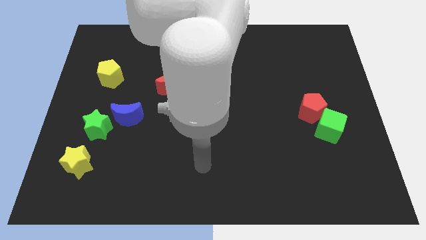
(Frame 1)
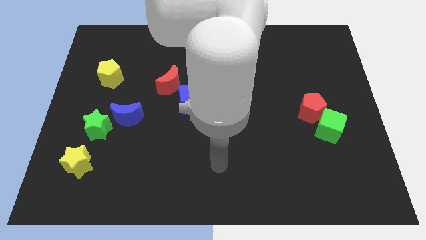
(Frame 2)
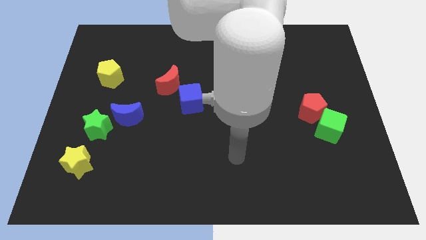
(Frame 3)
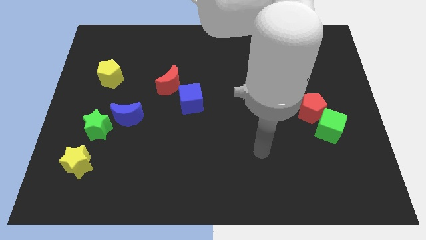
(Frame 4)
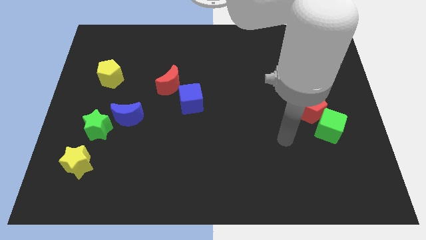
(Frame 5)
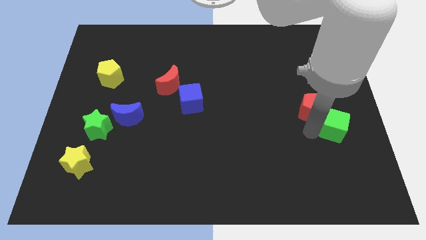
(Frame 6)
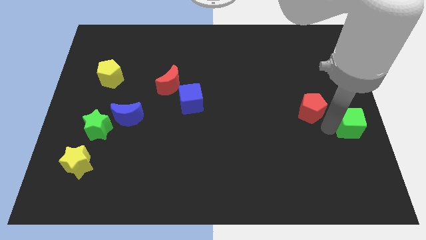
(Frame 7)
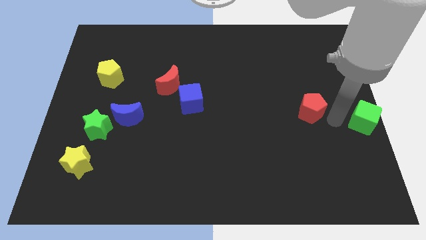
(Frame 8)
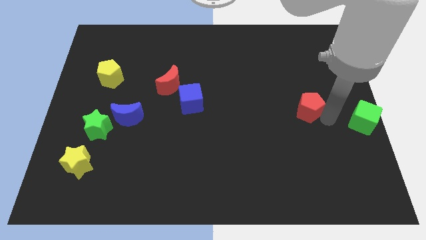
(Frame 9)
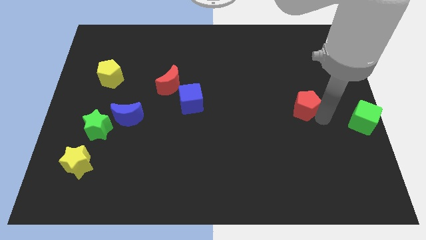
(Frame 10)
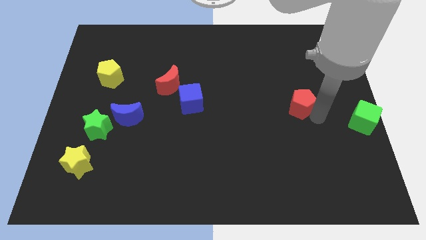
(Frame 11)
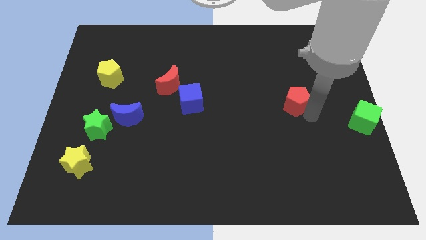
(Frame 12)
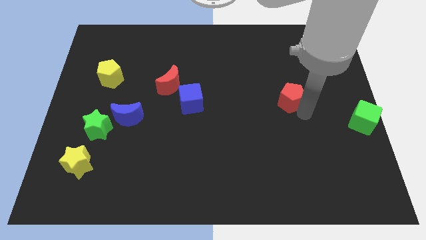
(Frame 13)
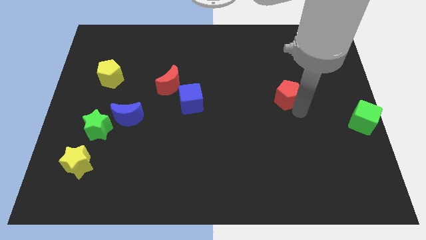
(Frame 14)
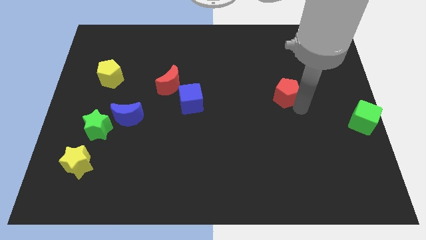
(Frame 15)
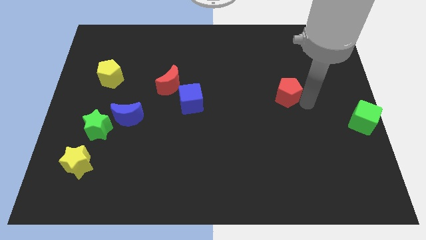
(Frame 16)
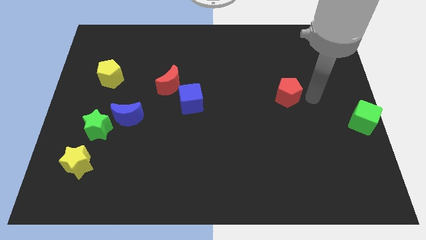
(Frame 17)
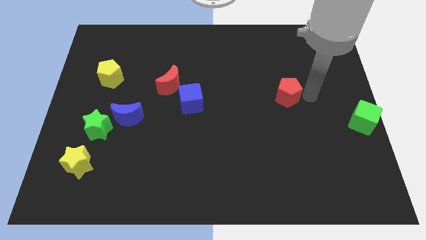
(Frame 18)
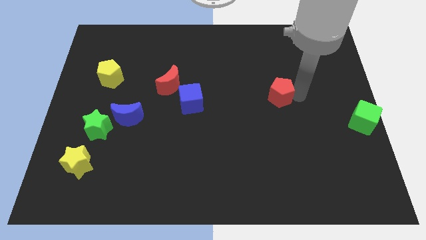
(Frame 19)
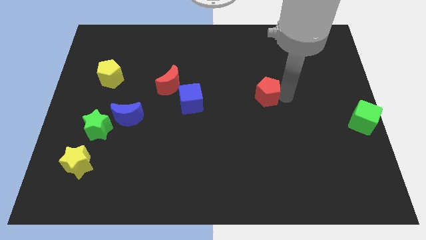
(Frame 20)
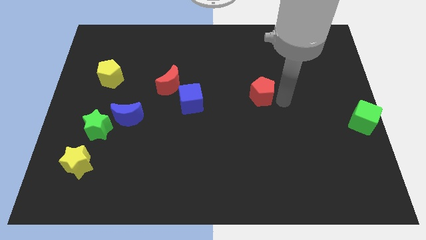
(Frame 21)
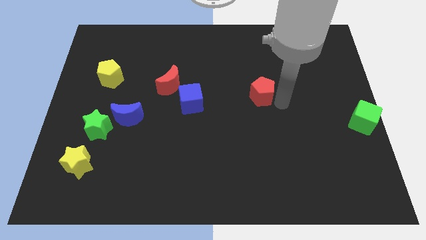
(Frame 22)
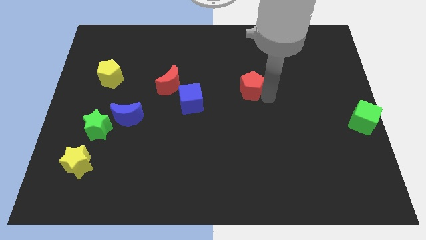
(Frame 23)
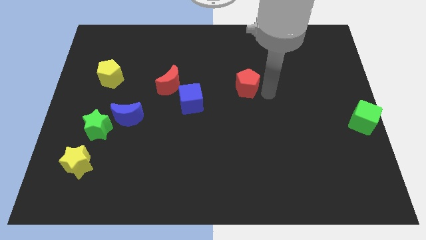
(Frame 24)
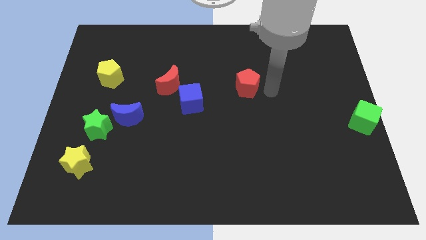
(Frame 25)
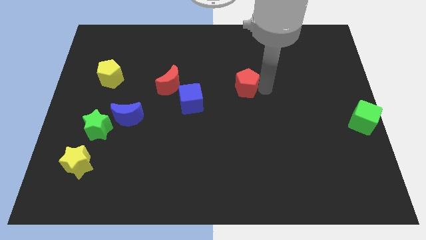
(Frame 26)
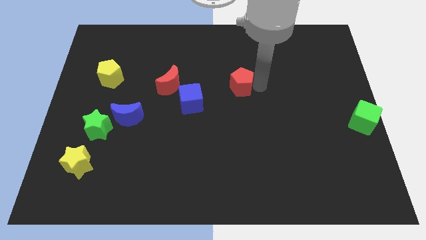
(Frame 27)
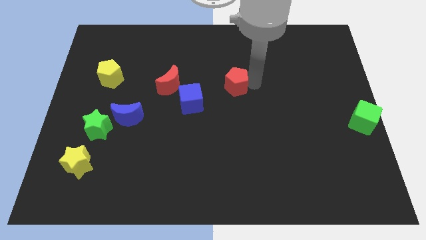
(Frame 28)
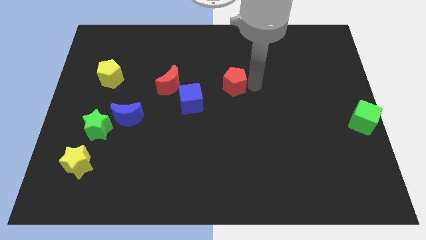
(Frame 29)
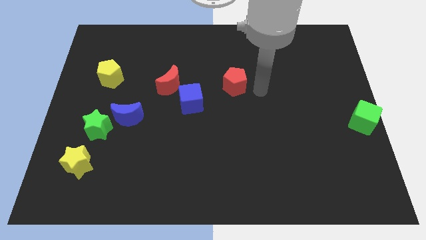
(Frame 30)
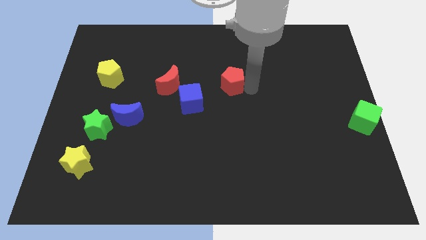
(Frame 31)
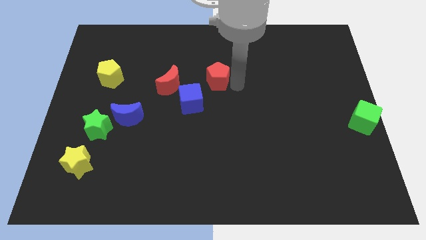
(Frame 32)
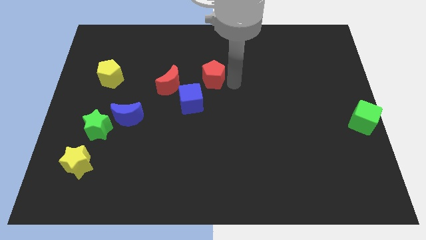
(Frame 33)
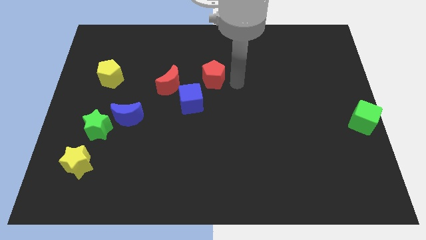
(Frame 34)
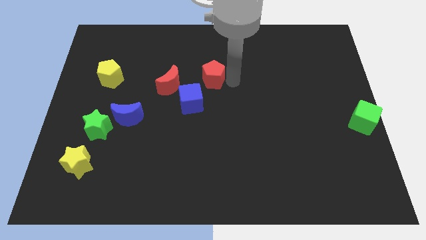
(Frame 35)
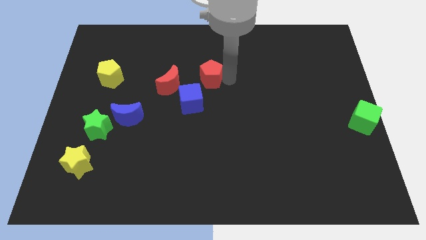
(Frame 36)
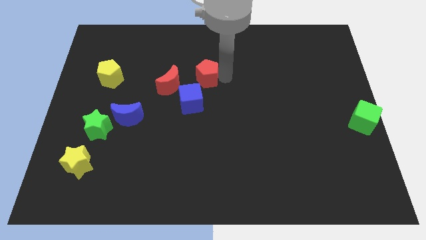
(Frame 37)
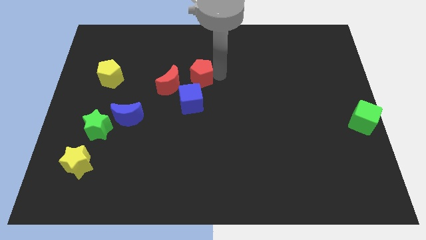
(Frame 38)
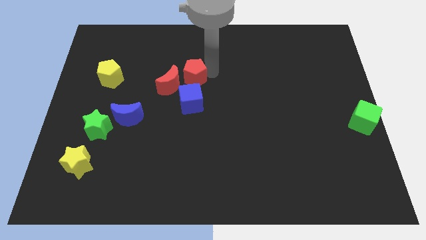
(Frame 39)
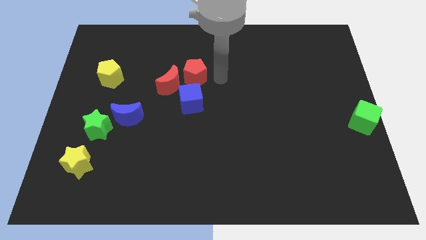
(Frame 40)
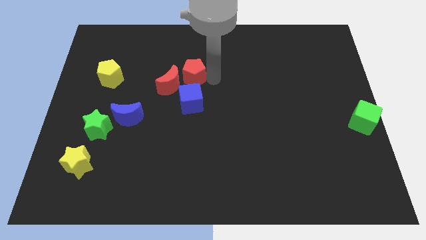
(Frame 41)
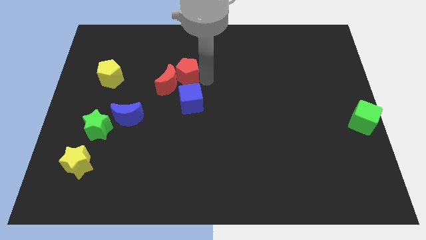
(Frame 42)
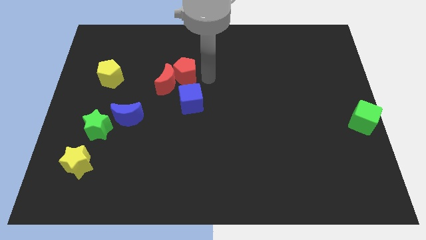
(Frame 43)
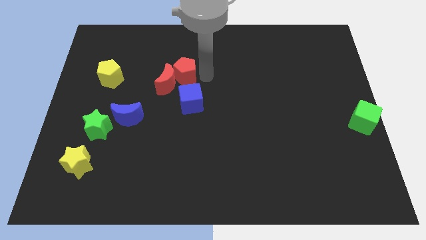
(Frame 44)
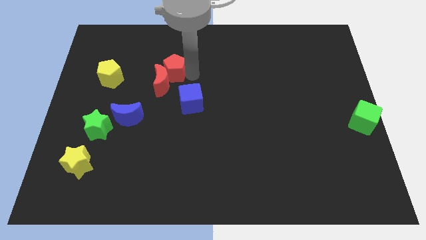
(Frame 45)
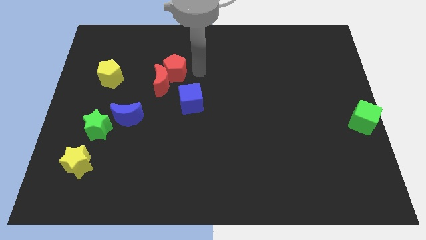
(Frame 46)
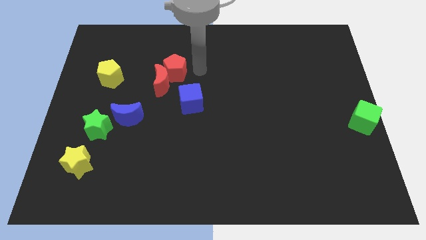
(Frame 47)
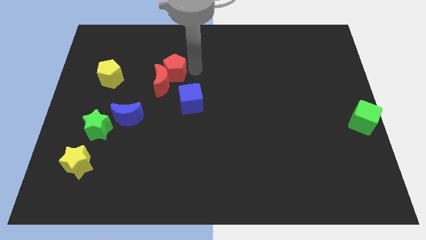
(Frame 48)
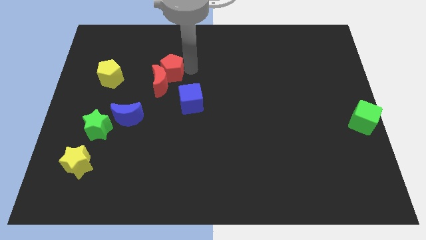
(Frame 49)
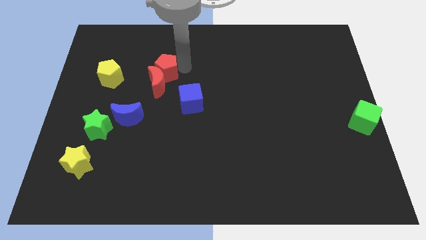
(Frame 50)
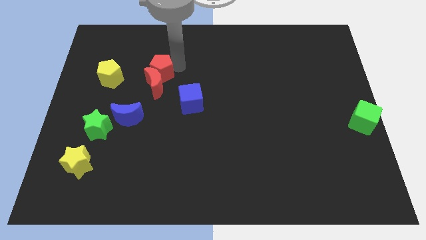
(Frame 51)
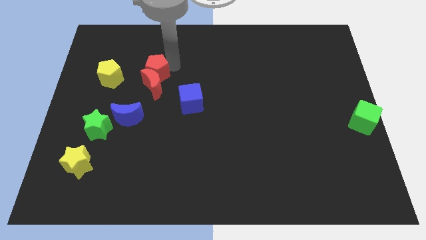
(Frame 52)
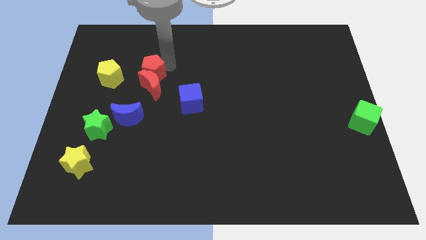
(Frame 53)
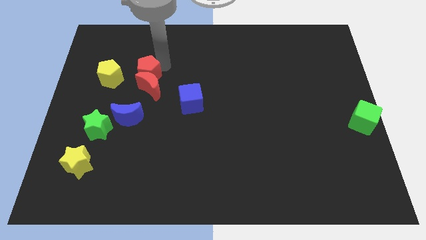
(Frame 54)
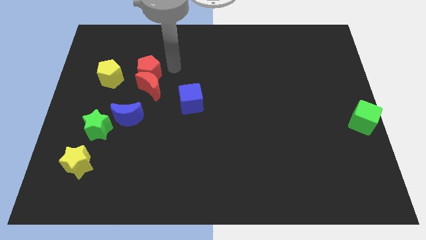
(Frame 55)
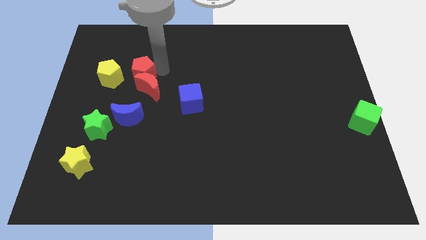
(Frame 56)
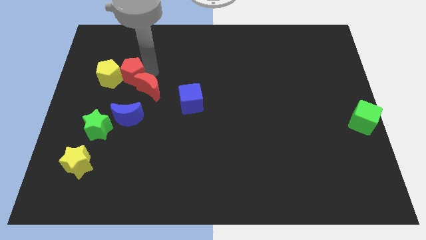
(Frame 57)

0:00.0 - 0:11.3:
push the red pentagon next to the yellow pentagon

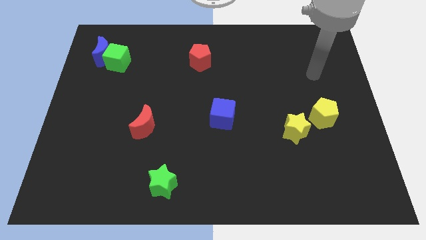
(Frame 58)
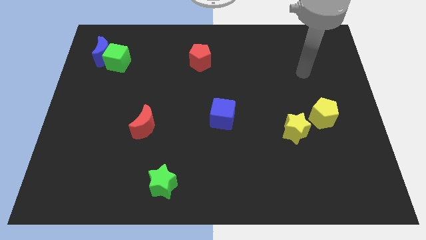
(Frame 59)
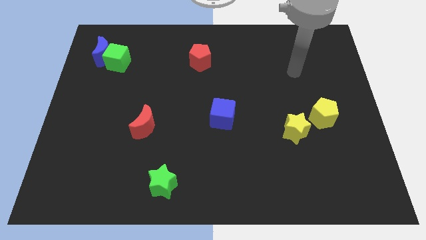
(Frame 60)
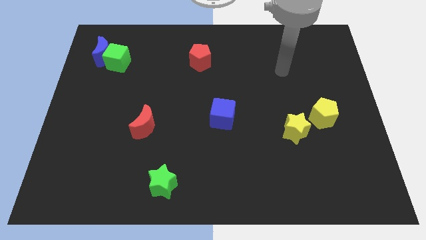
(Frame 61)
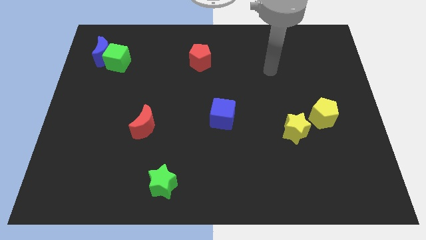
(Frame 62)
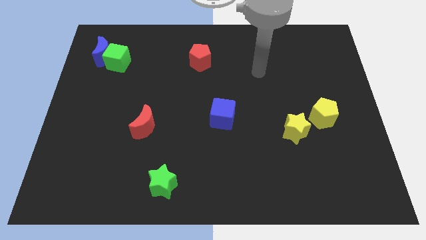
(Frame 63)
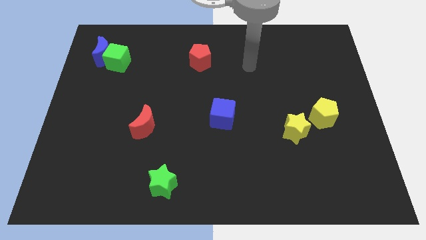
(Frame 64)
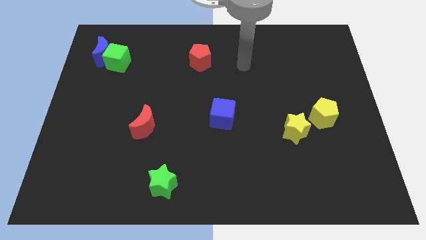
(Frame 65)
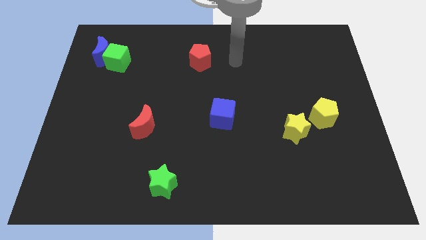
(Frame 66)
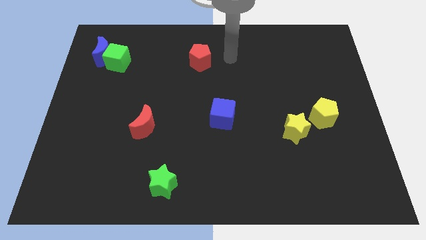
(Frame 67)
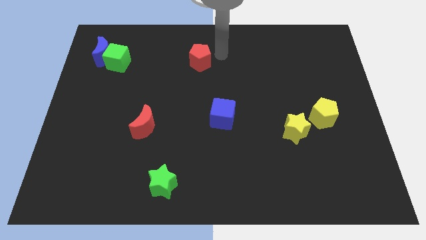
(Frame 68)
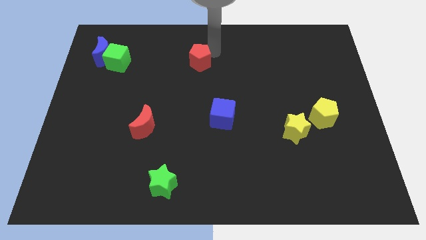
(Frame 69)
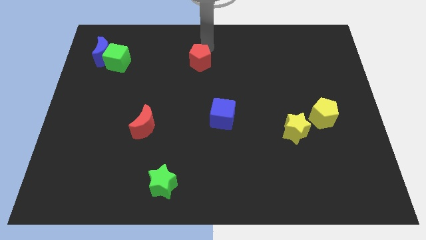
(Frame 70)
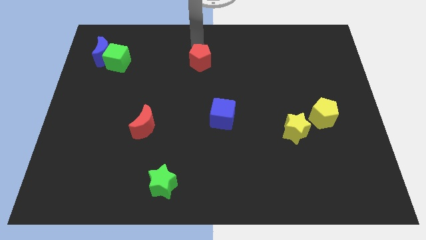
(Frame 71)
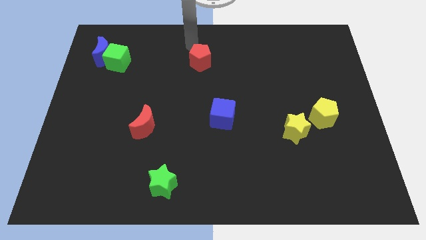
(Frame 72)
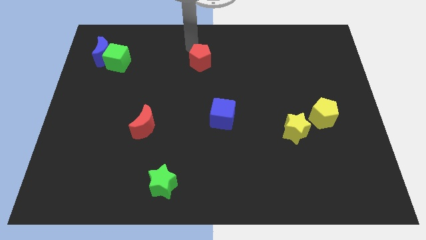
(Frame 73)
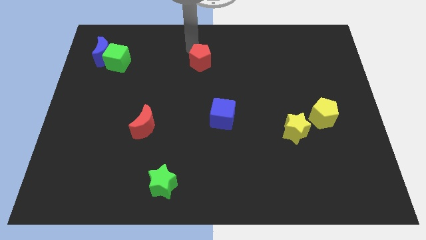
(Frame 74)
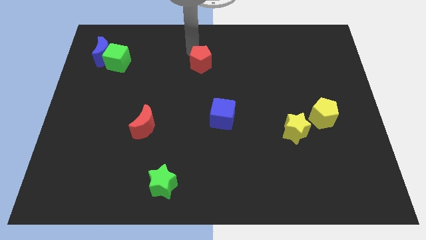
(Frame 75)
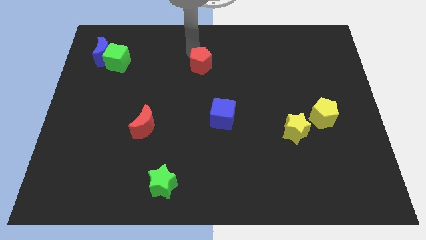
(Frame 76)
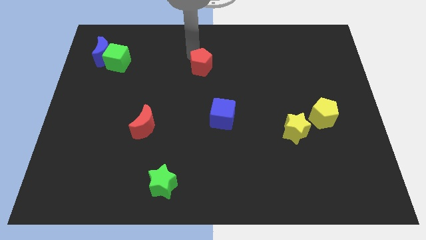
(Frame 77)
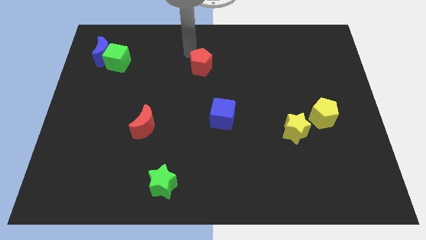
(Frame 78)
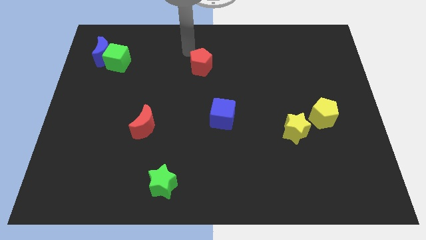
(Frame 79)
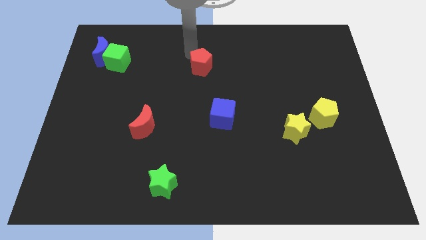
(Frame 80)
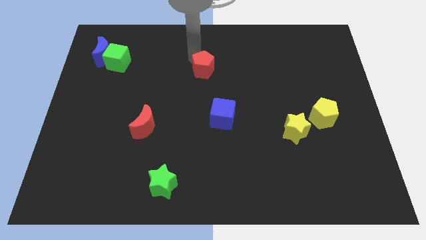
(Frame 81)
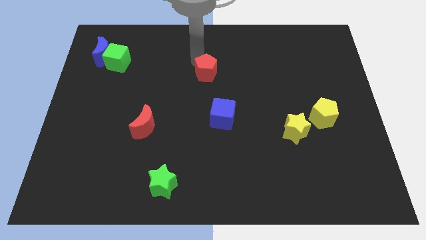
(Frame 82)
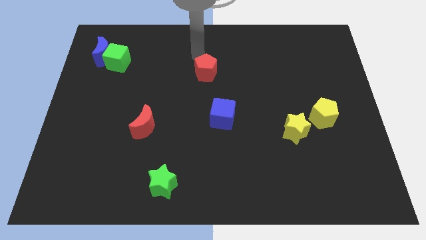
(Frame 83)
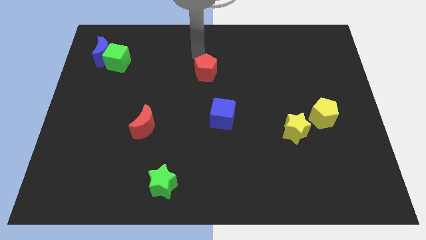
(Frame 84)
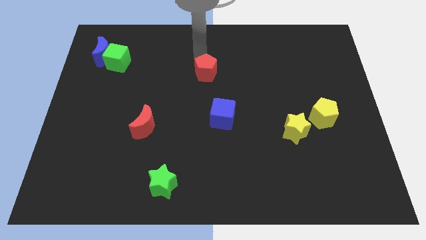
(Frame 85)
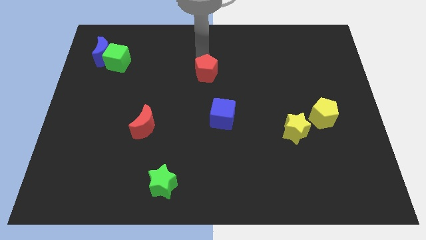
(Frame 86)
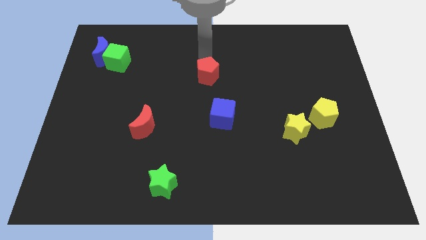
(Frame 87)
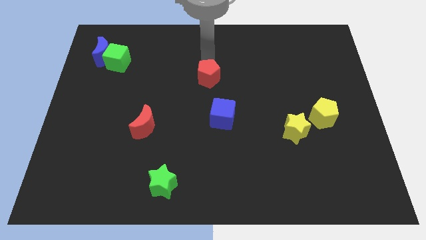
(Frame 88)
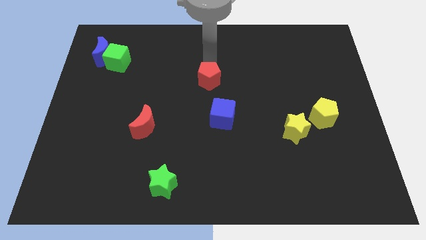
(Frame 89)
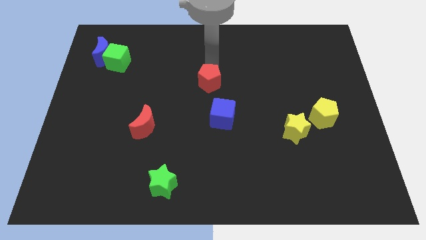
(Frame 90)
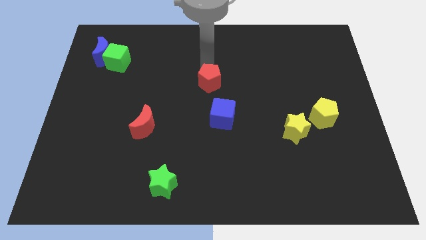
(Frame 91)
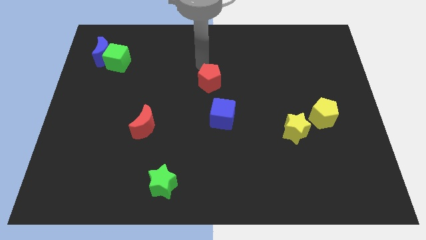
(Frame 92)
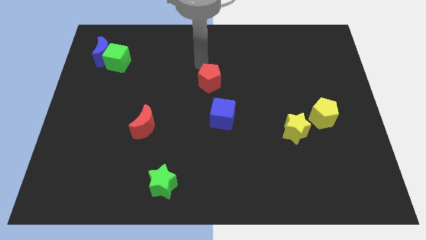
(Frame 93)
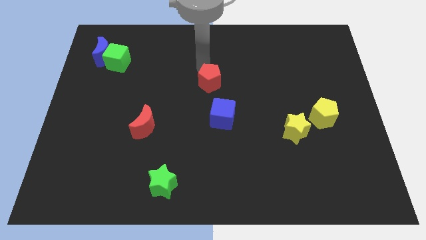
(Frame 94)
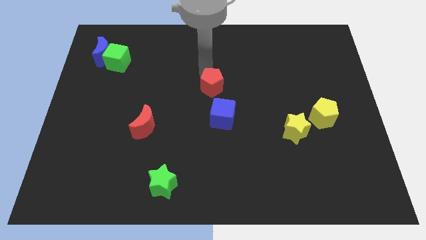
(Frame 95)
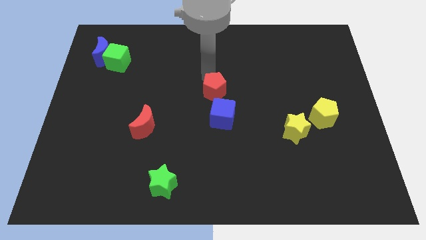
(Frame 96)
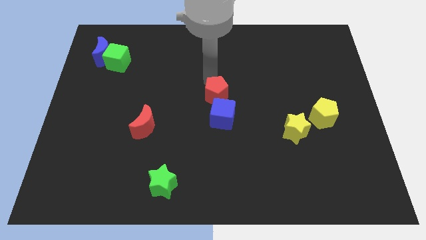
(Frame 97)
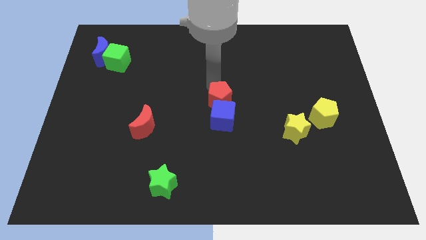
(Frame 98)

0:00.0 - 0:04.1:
put the red pentagon close to the blue cube
